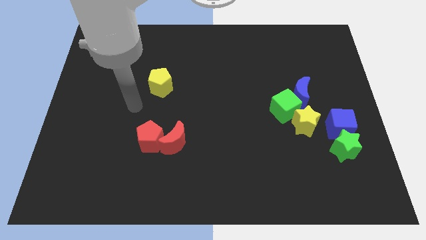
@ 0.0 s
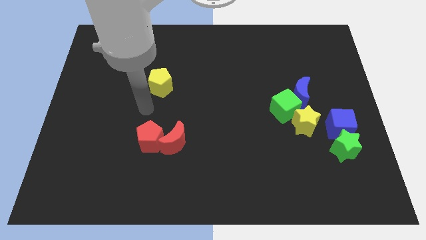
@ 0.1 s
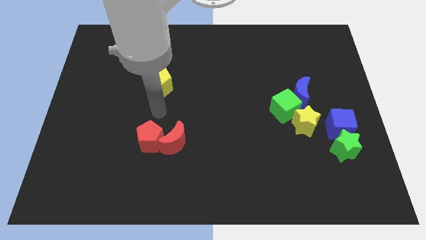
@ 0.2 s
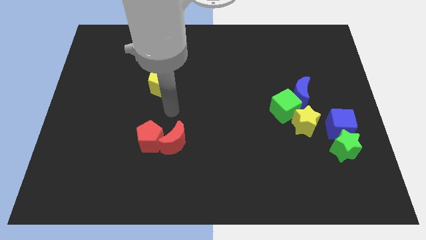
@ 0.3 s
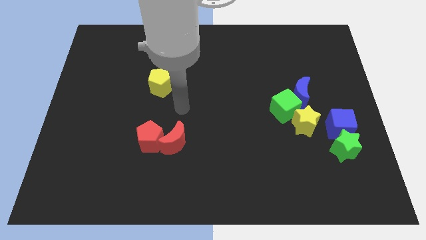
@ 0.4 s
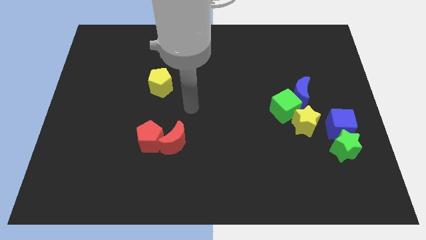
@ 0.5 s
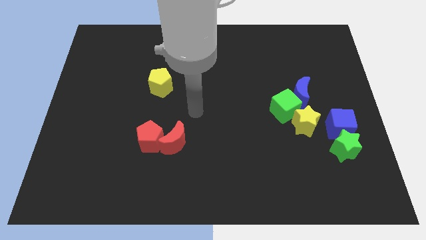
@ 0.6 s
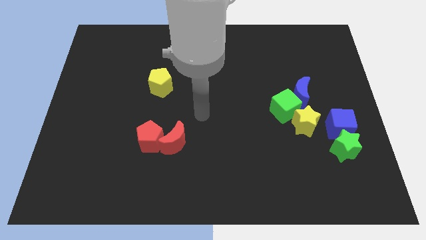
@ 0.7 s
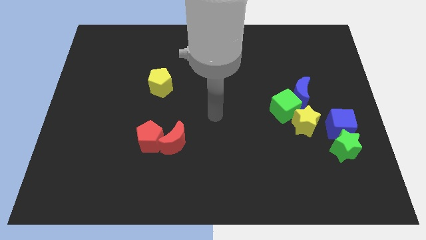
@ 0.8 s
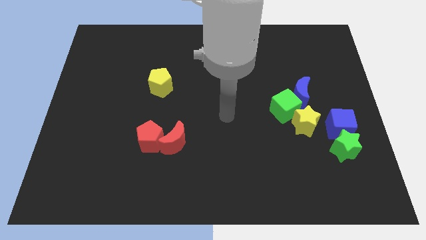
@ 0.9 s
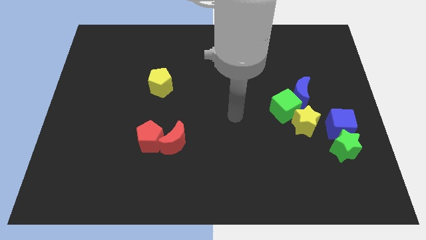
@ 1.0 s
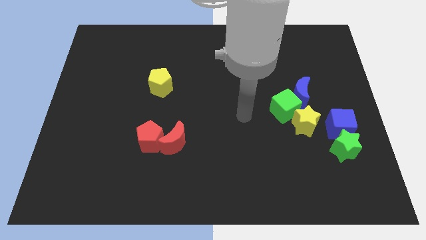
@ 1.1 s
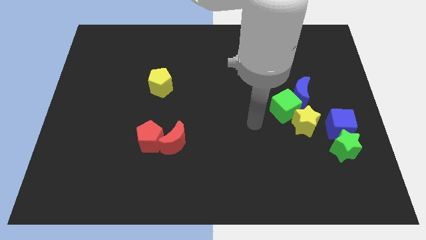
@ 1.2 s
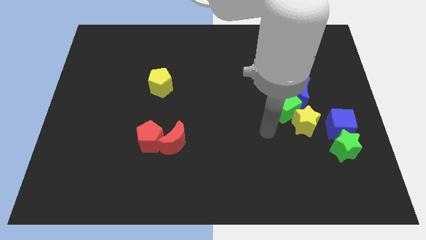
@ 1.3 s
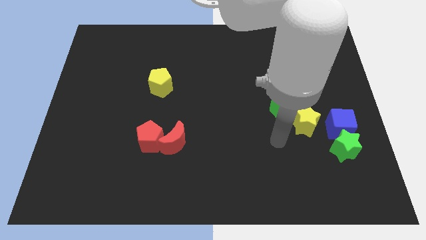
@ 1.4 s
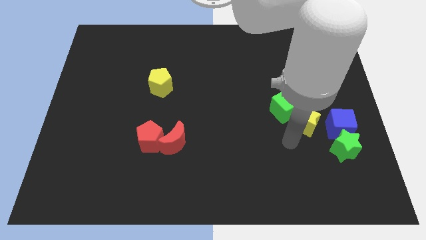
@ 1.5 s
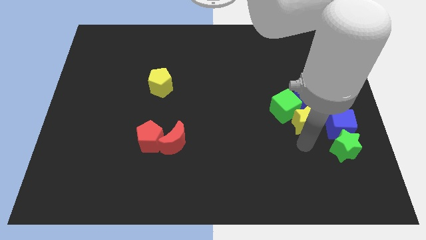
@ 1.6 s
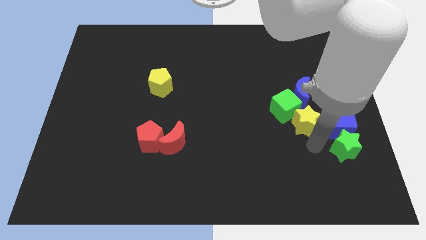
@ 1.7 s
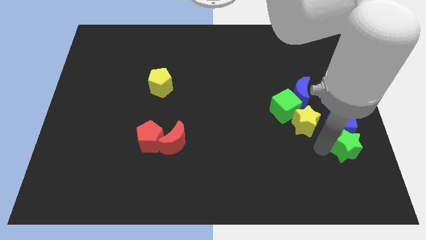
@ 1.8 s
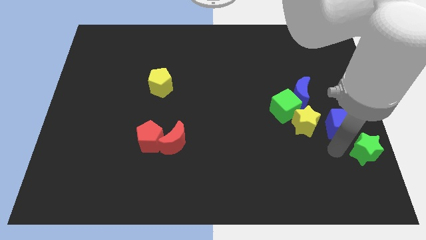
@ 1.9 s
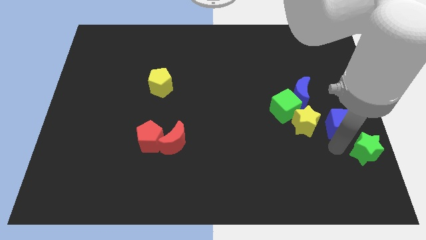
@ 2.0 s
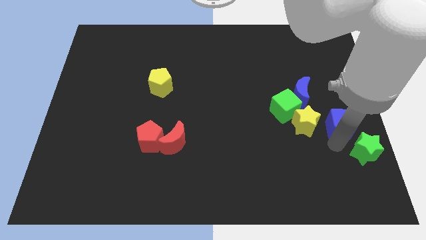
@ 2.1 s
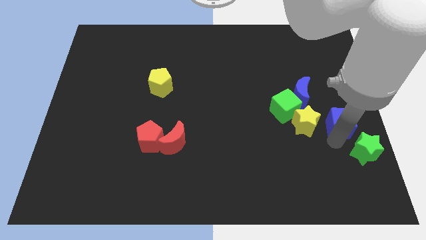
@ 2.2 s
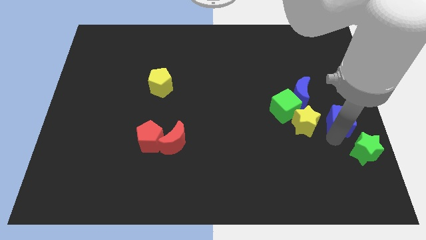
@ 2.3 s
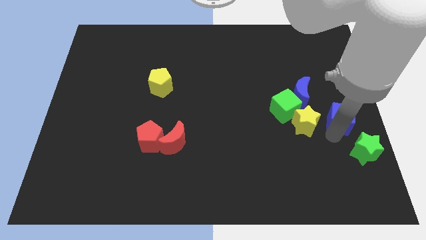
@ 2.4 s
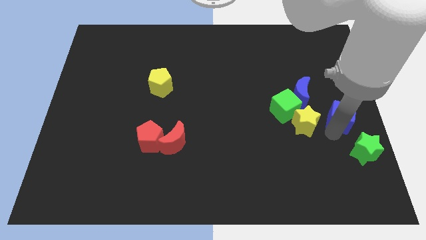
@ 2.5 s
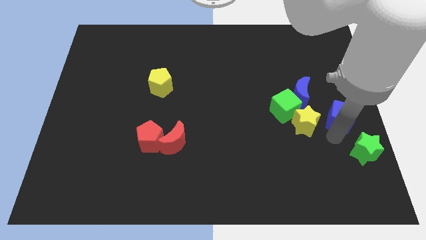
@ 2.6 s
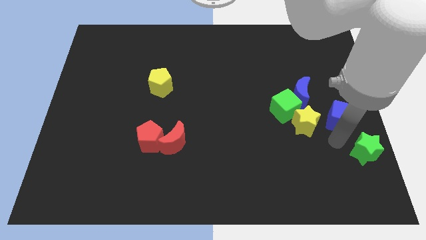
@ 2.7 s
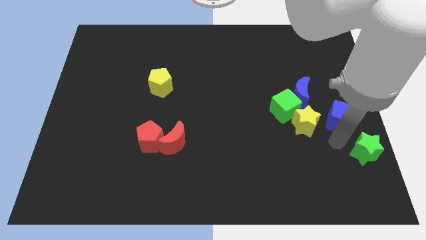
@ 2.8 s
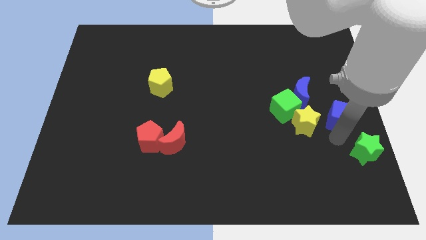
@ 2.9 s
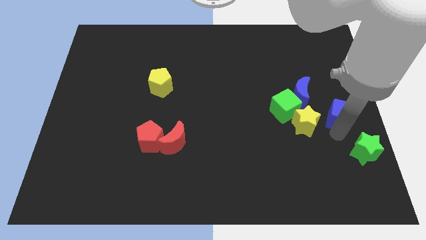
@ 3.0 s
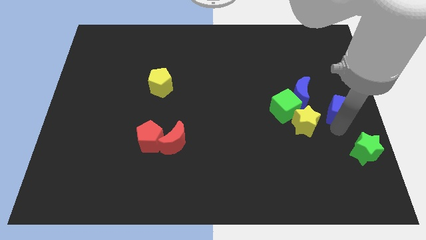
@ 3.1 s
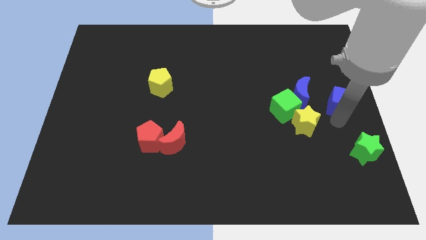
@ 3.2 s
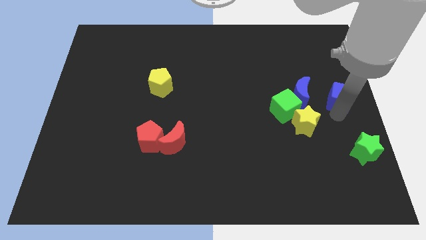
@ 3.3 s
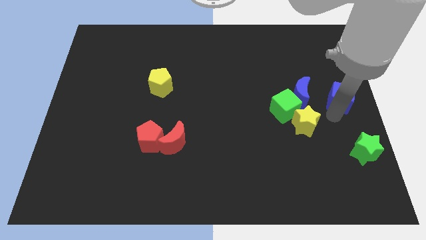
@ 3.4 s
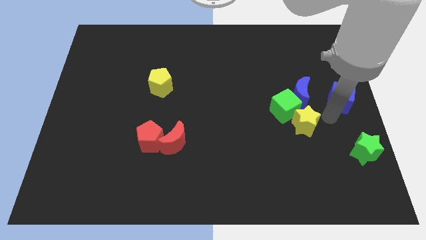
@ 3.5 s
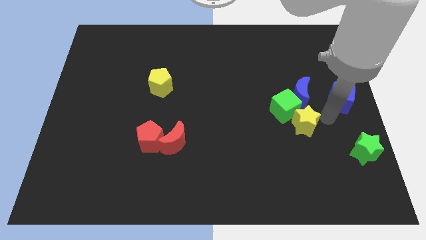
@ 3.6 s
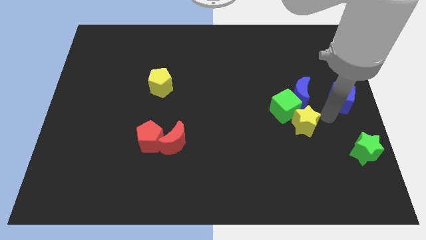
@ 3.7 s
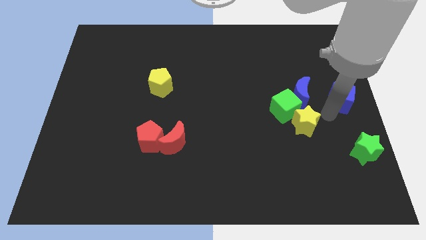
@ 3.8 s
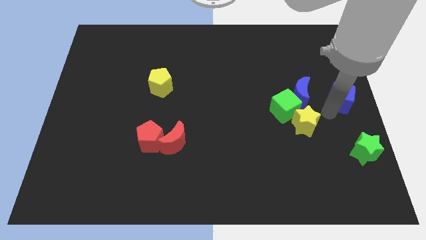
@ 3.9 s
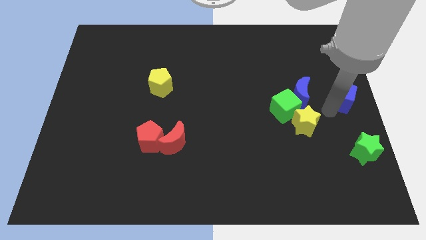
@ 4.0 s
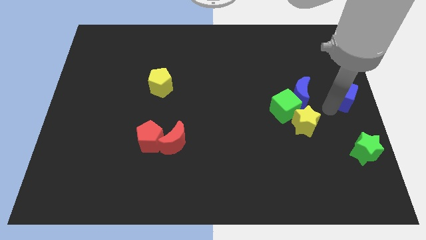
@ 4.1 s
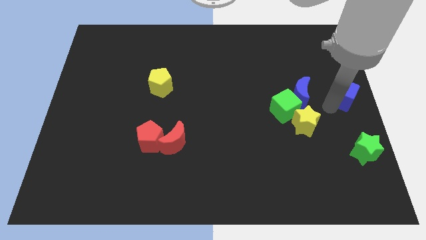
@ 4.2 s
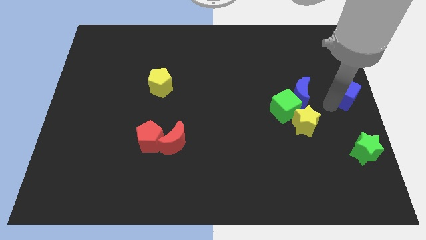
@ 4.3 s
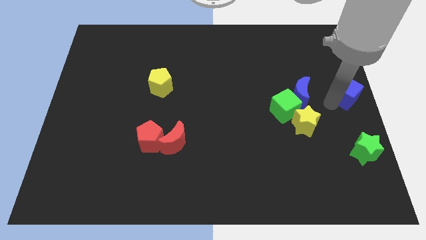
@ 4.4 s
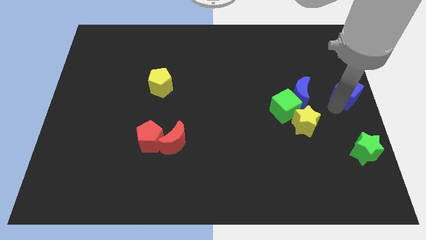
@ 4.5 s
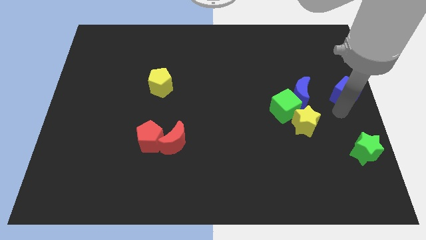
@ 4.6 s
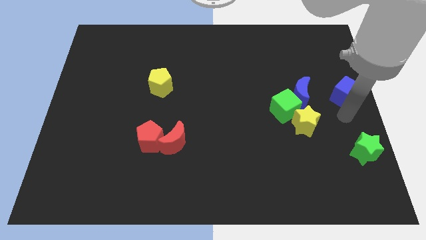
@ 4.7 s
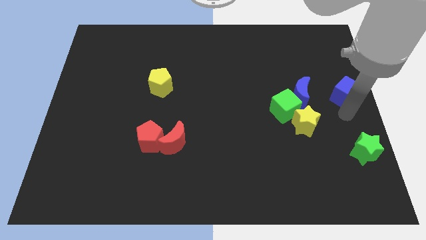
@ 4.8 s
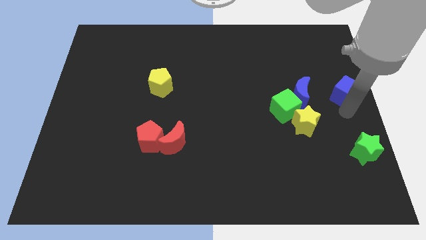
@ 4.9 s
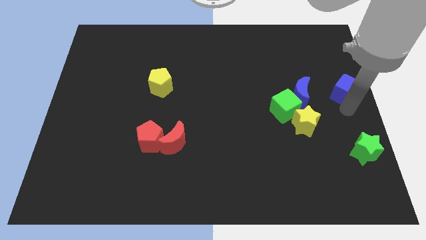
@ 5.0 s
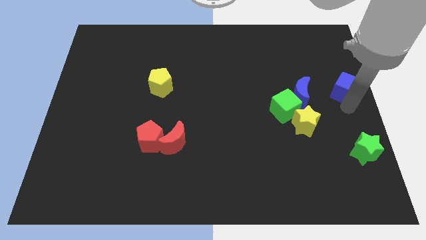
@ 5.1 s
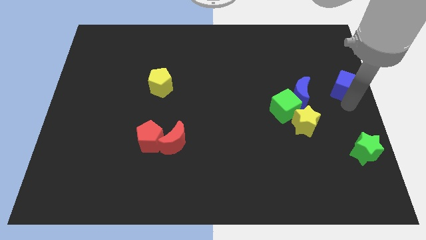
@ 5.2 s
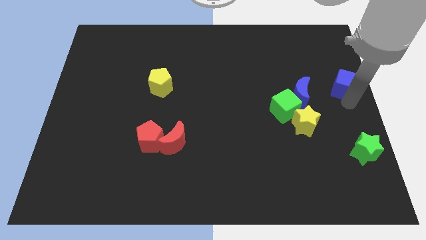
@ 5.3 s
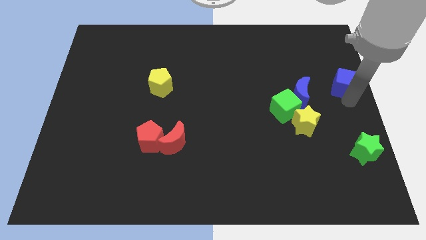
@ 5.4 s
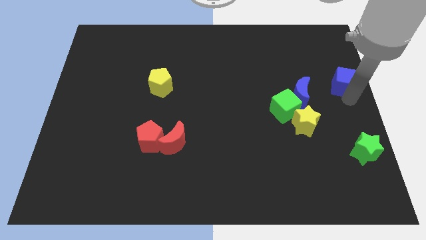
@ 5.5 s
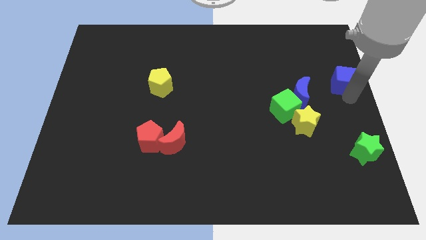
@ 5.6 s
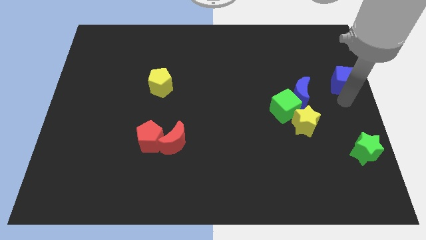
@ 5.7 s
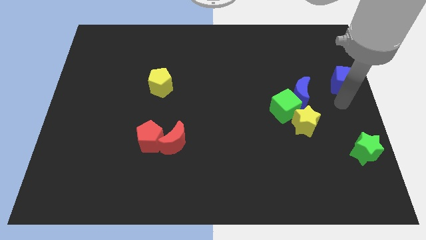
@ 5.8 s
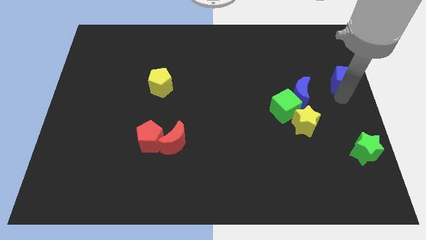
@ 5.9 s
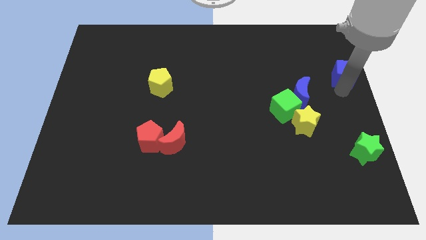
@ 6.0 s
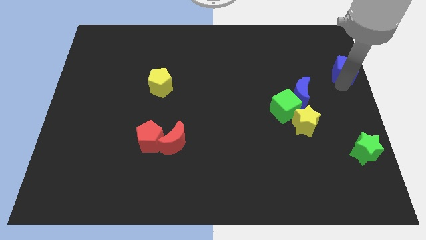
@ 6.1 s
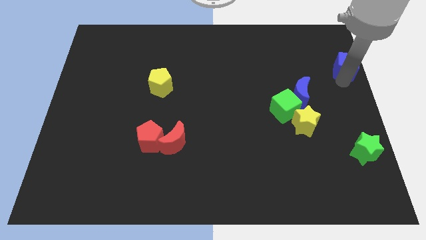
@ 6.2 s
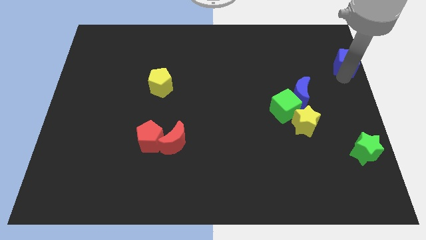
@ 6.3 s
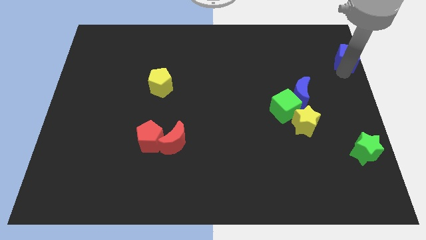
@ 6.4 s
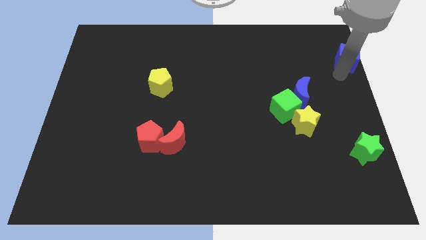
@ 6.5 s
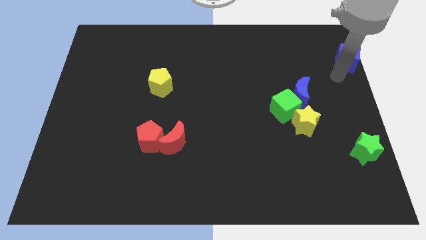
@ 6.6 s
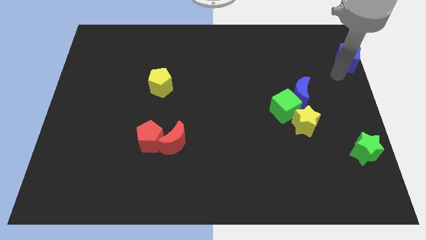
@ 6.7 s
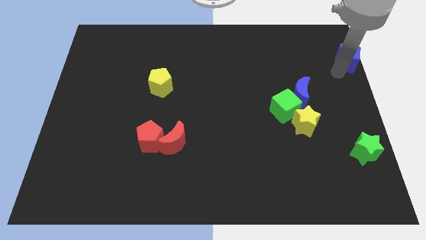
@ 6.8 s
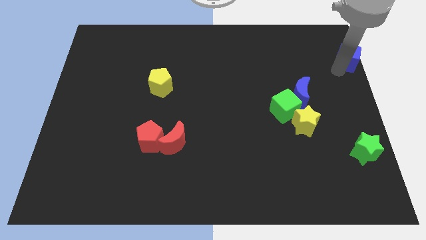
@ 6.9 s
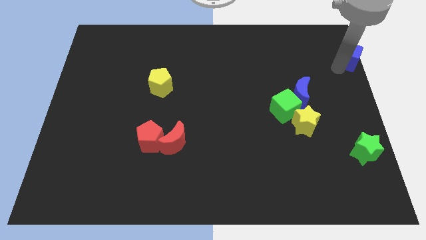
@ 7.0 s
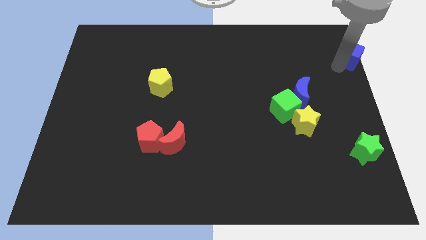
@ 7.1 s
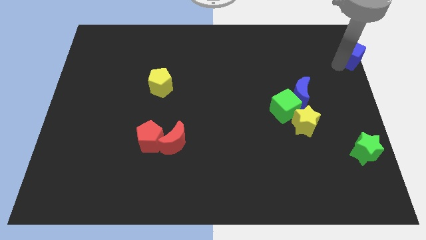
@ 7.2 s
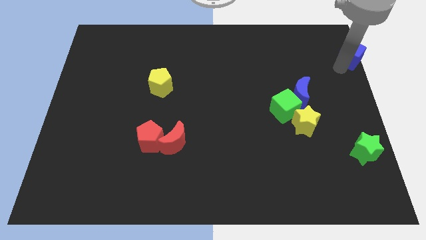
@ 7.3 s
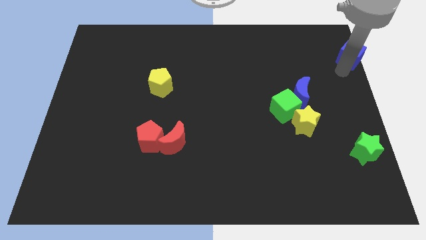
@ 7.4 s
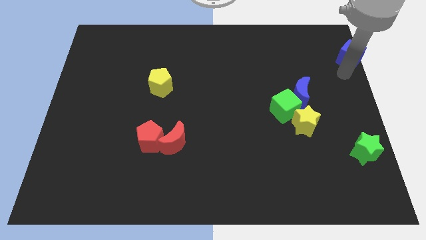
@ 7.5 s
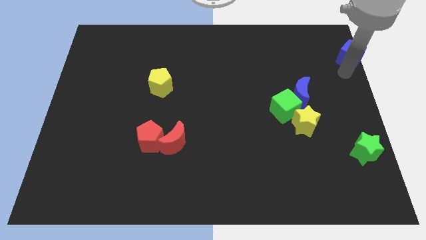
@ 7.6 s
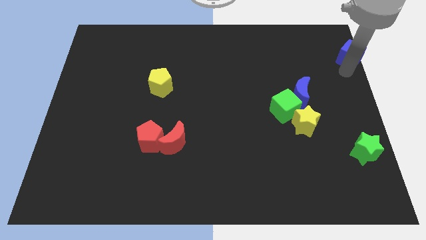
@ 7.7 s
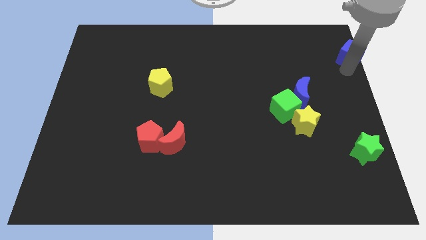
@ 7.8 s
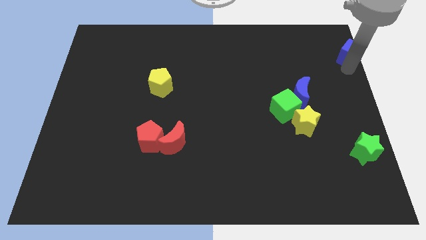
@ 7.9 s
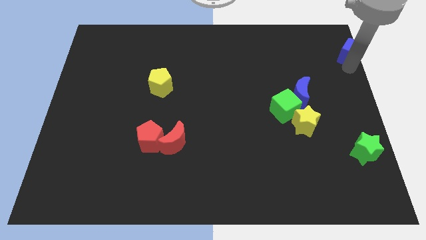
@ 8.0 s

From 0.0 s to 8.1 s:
slide the blue cube to the top right
